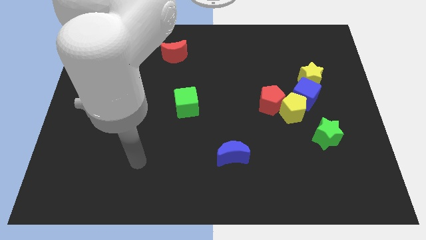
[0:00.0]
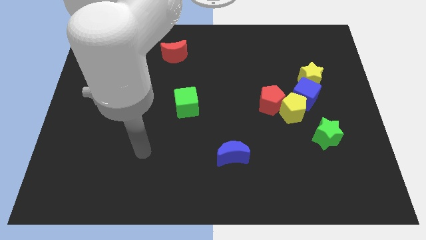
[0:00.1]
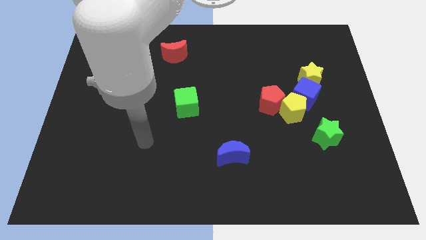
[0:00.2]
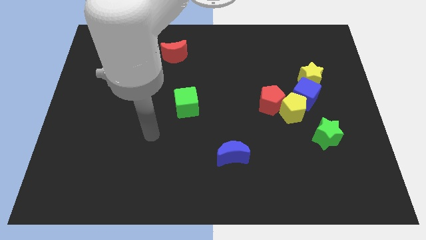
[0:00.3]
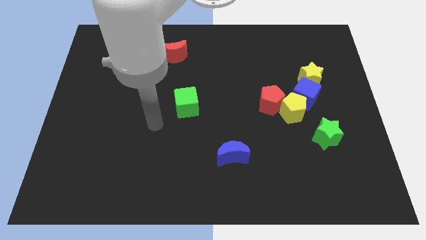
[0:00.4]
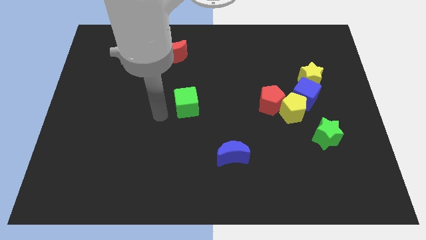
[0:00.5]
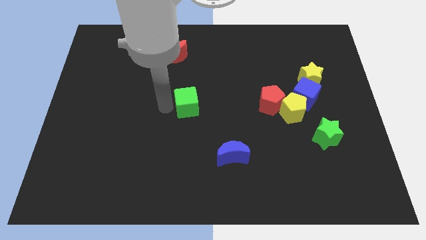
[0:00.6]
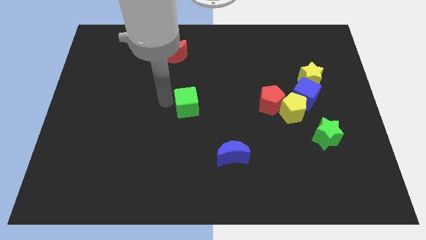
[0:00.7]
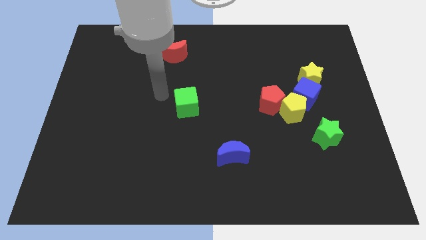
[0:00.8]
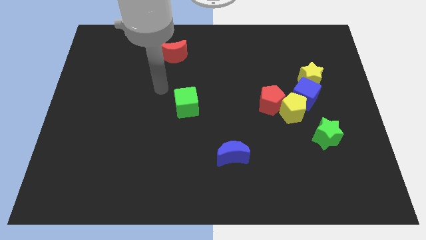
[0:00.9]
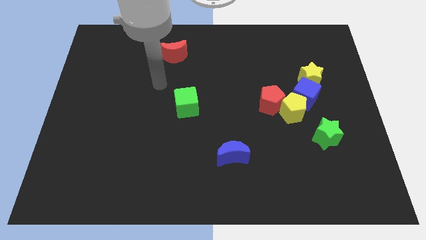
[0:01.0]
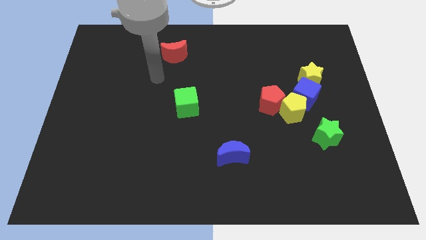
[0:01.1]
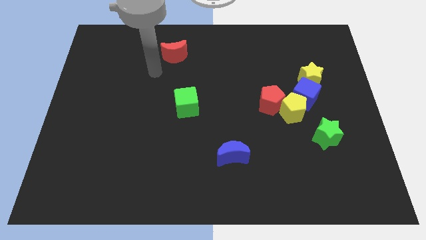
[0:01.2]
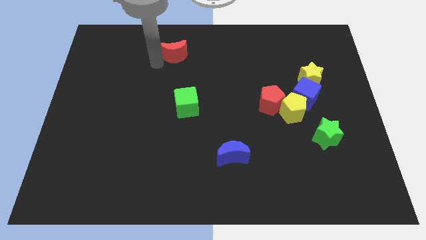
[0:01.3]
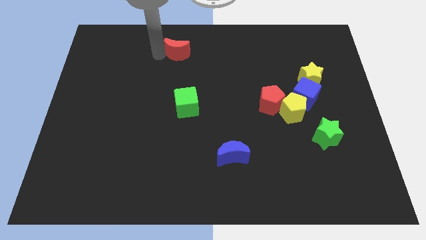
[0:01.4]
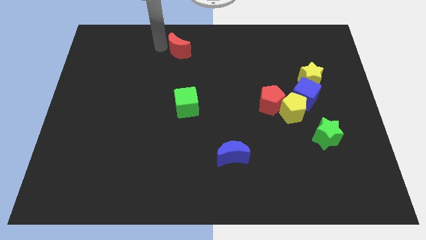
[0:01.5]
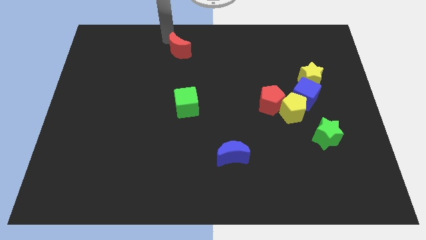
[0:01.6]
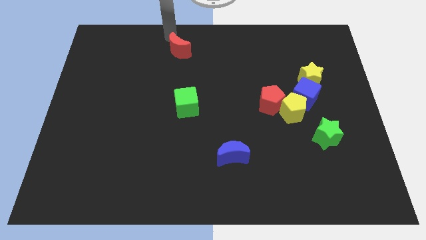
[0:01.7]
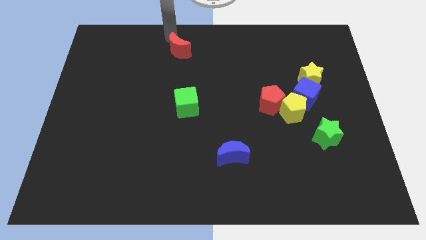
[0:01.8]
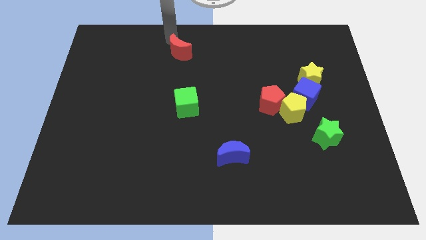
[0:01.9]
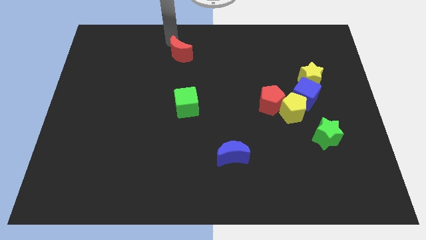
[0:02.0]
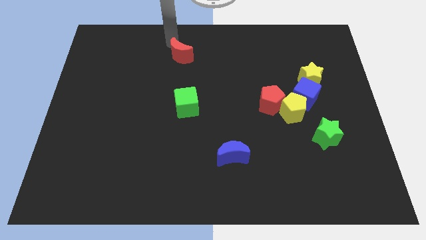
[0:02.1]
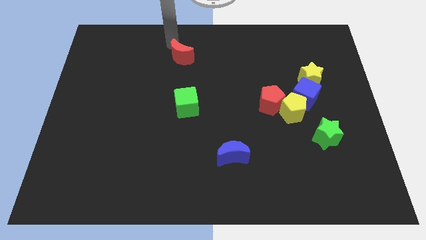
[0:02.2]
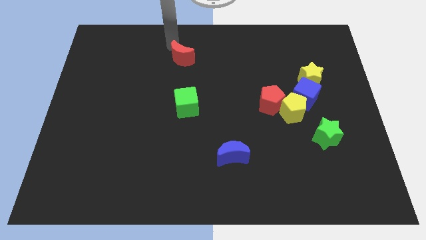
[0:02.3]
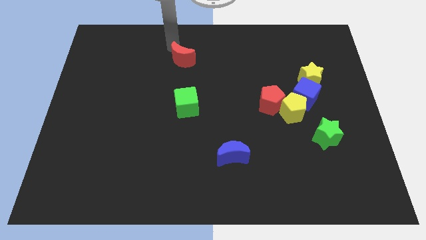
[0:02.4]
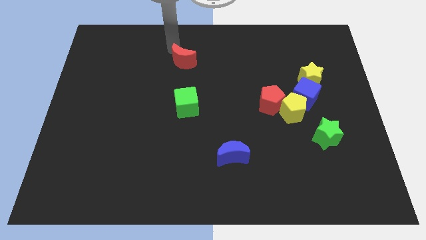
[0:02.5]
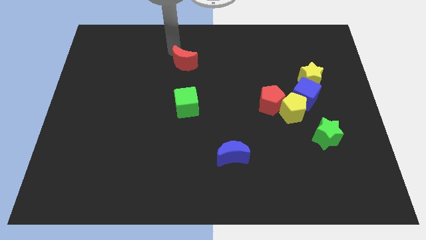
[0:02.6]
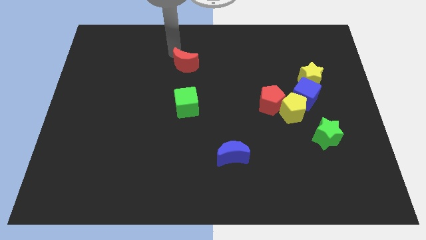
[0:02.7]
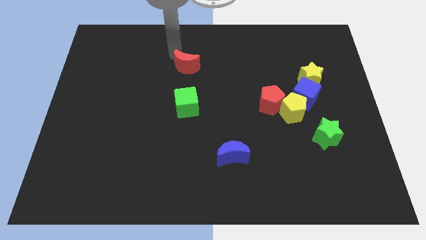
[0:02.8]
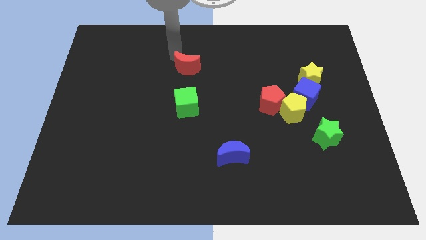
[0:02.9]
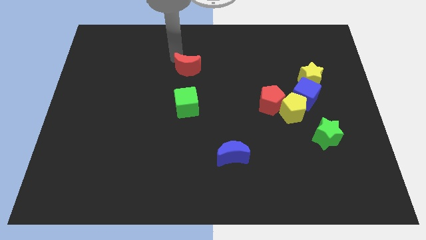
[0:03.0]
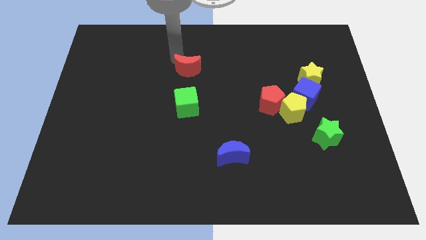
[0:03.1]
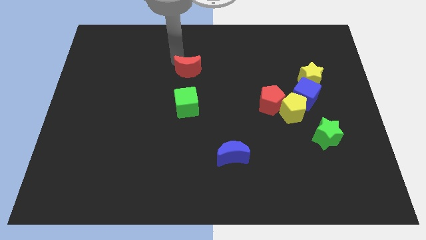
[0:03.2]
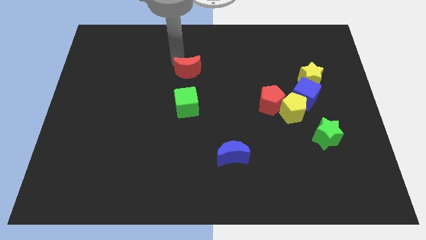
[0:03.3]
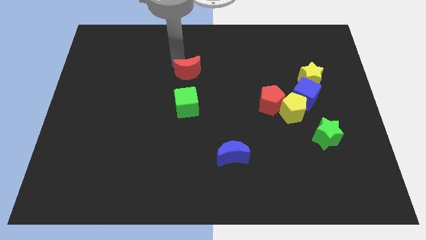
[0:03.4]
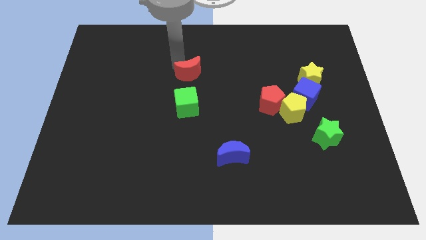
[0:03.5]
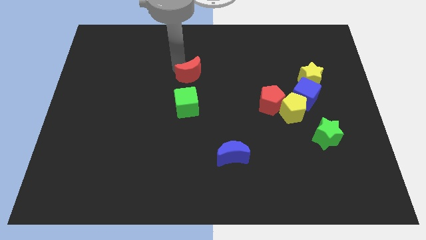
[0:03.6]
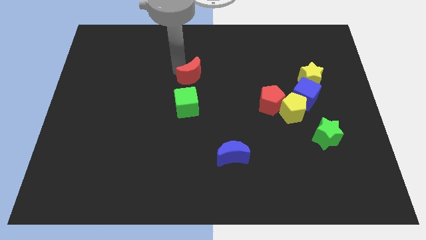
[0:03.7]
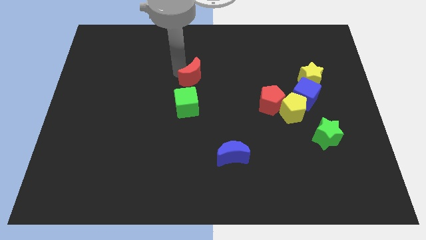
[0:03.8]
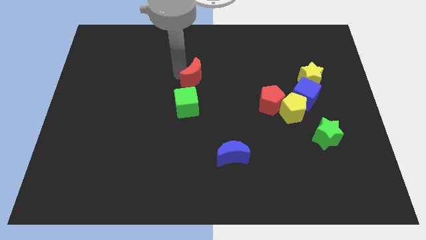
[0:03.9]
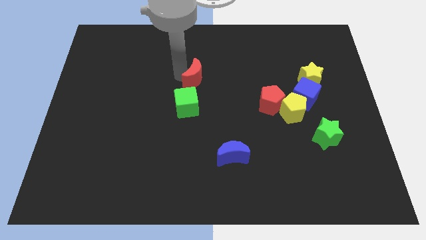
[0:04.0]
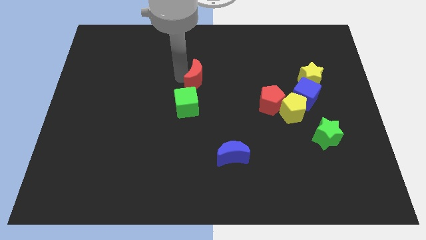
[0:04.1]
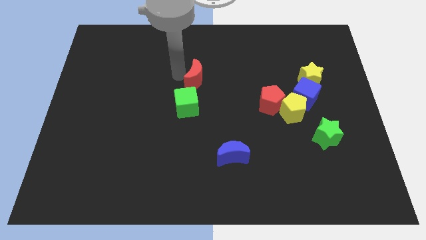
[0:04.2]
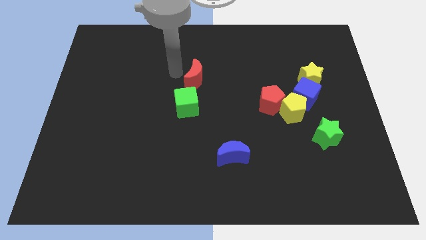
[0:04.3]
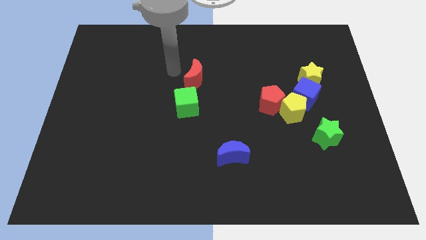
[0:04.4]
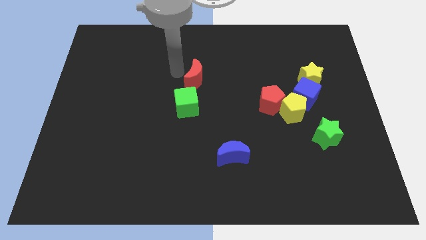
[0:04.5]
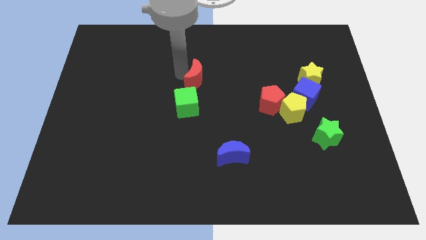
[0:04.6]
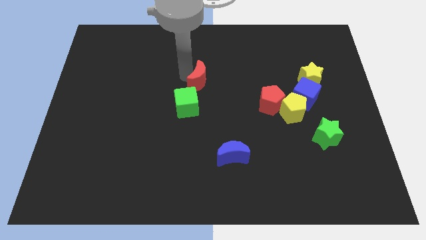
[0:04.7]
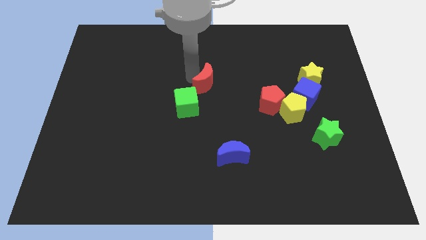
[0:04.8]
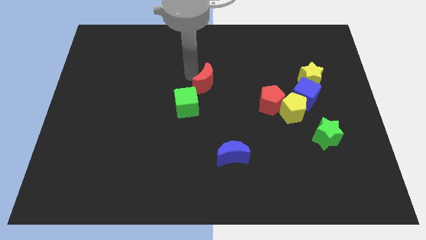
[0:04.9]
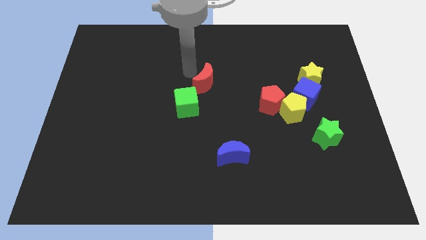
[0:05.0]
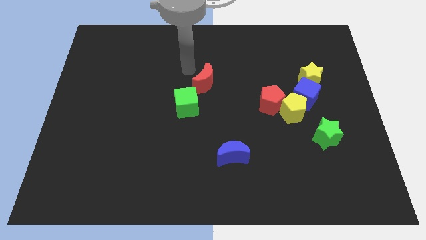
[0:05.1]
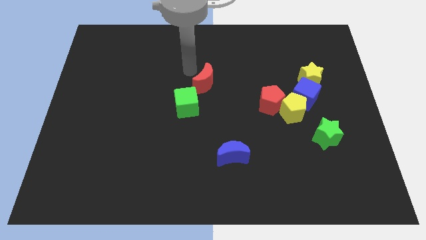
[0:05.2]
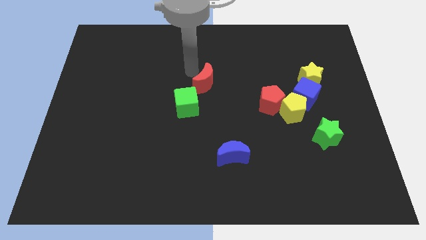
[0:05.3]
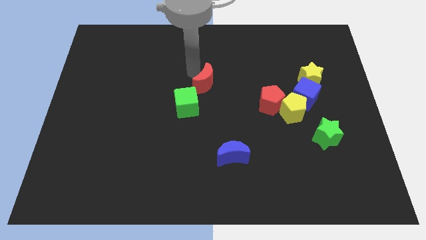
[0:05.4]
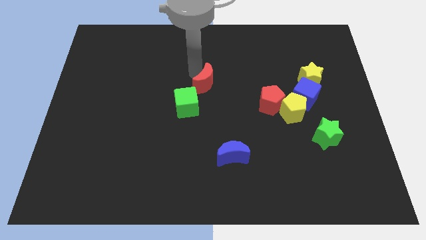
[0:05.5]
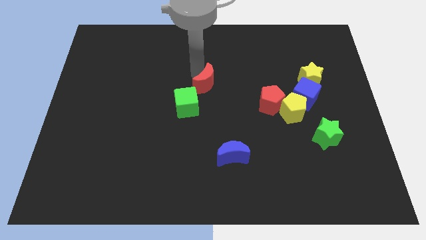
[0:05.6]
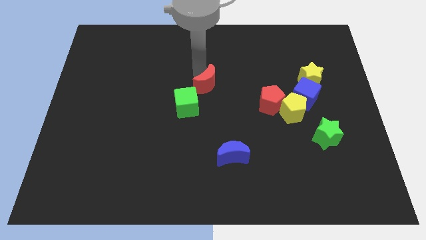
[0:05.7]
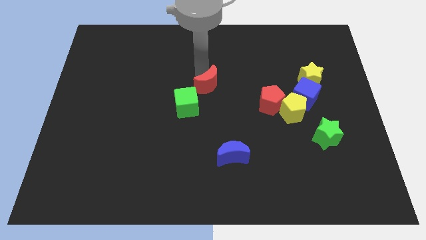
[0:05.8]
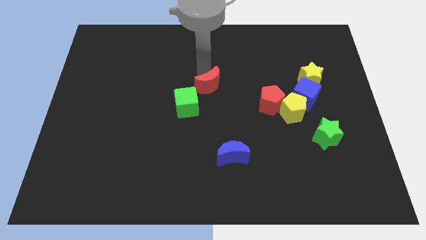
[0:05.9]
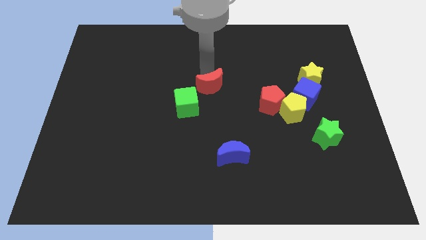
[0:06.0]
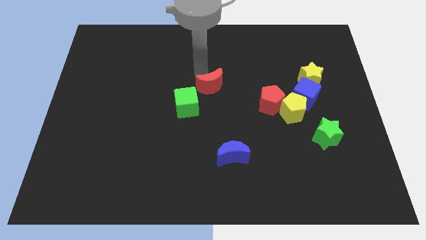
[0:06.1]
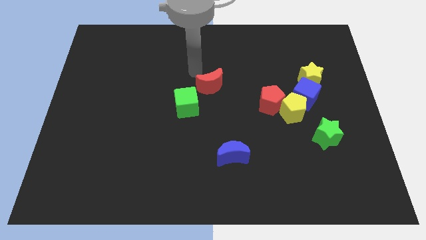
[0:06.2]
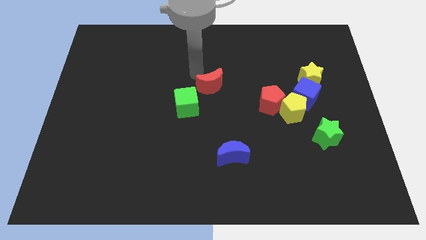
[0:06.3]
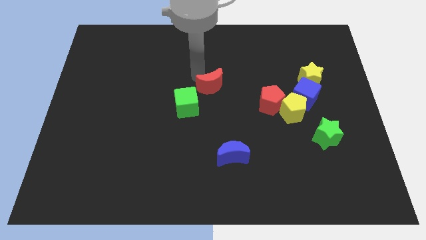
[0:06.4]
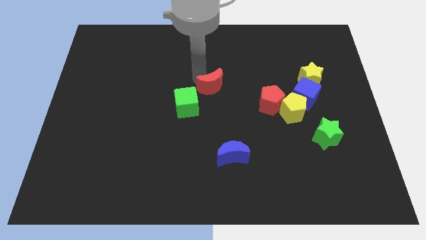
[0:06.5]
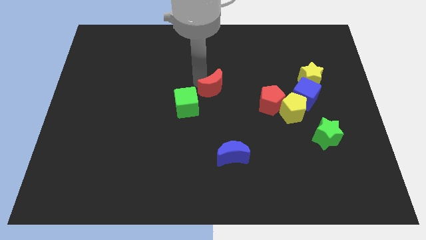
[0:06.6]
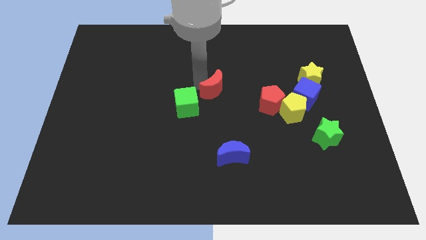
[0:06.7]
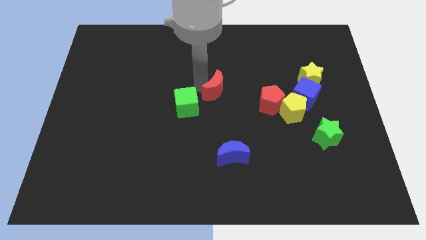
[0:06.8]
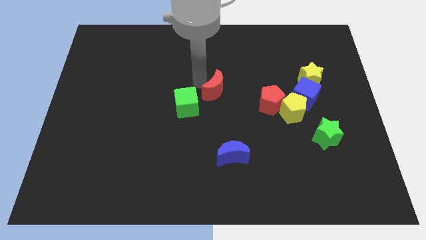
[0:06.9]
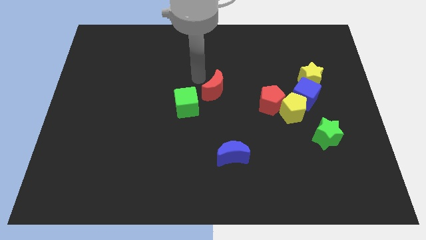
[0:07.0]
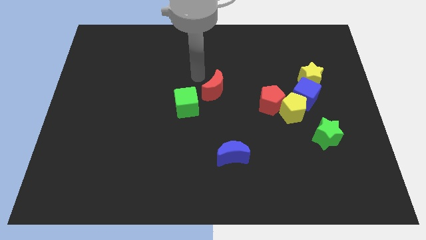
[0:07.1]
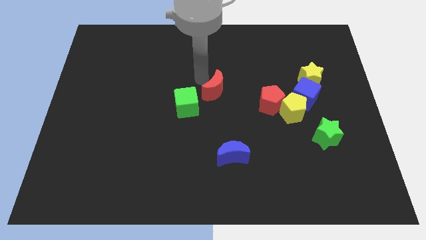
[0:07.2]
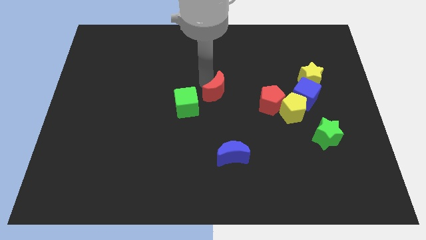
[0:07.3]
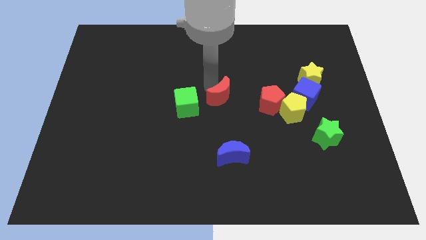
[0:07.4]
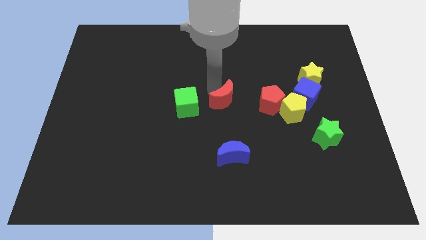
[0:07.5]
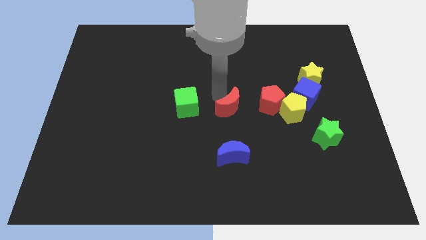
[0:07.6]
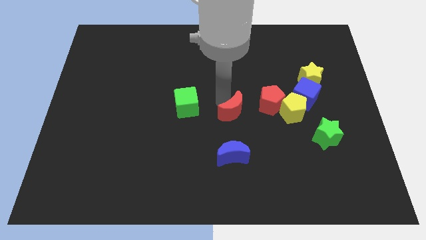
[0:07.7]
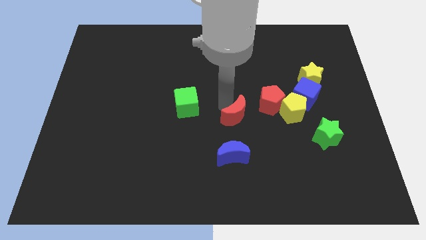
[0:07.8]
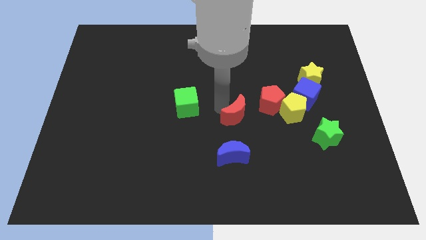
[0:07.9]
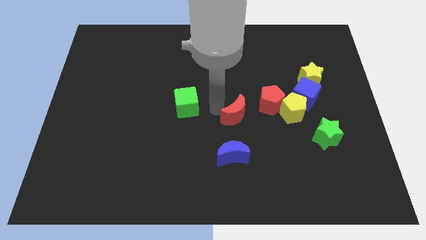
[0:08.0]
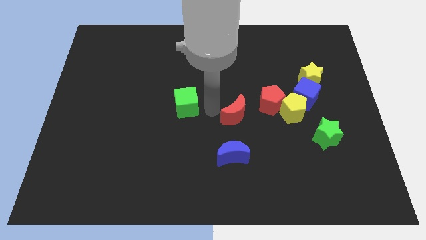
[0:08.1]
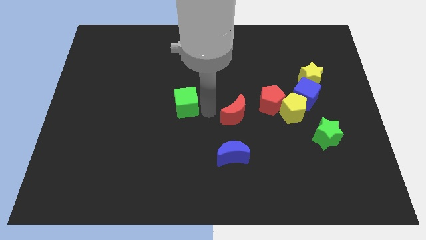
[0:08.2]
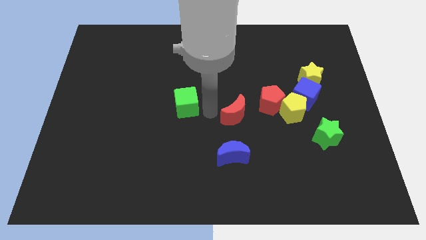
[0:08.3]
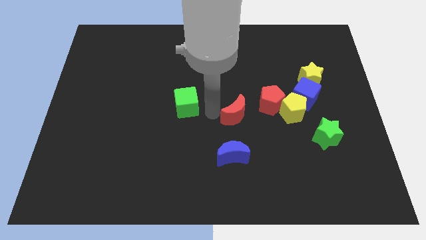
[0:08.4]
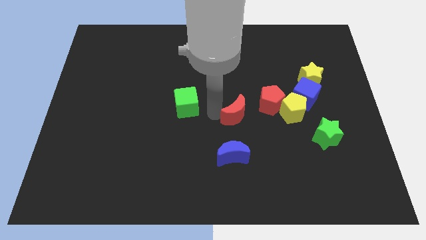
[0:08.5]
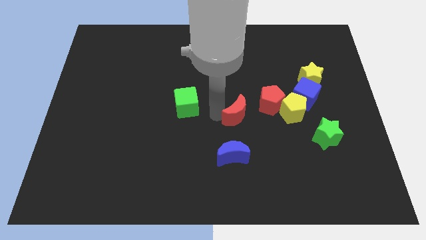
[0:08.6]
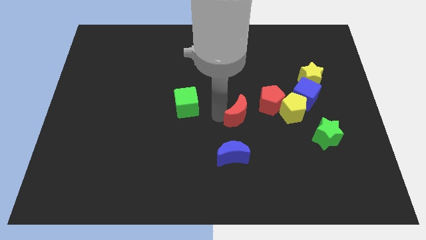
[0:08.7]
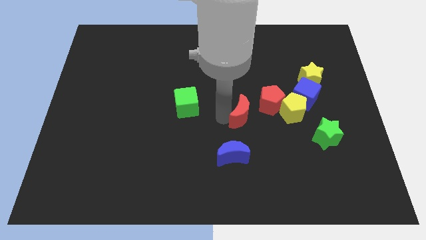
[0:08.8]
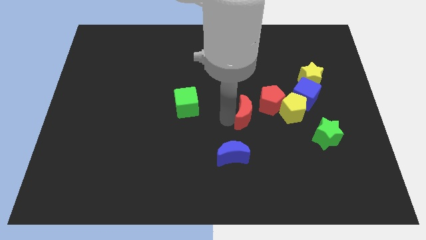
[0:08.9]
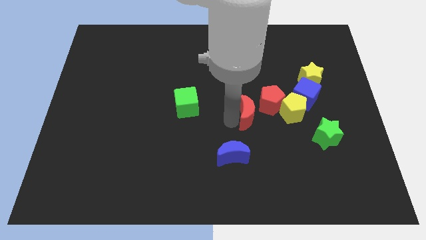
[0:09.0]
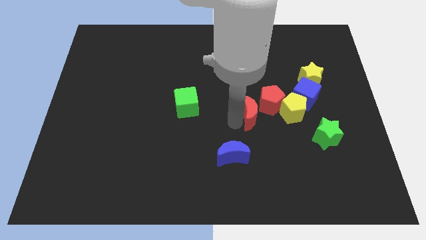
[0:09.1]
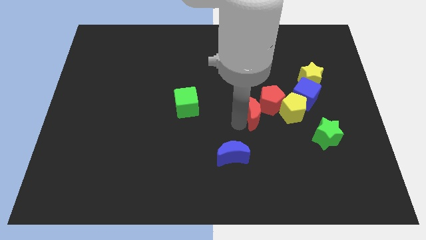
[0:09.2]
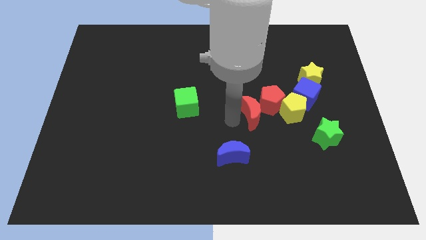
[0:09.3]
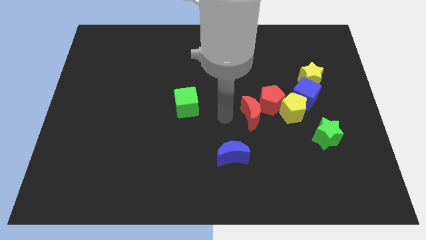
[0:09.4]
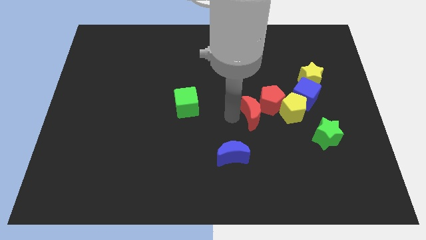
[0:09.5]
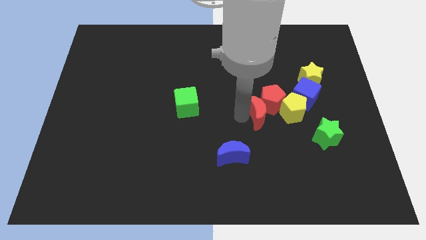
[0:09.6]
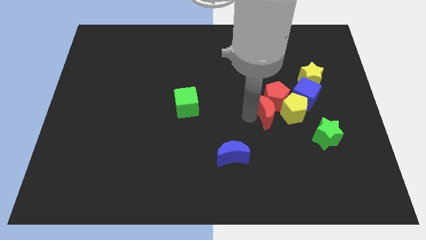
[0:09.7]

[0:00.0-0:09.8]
slide the red moon diagonally down and to the left of the blue cube
